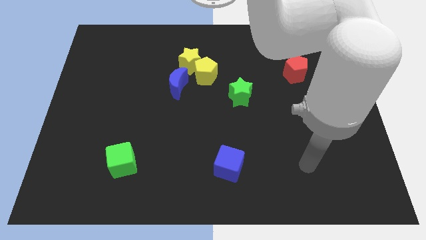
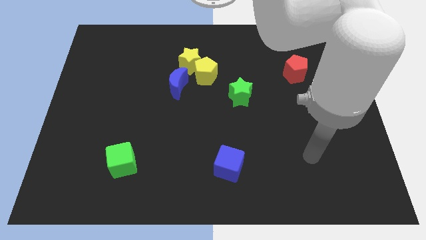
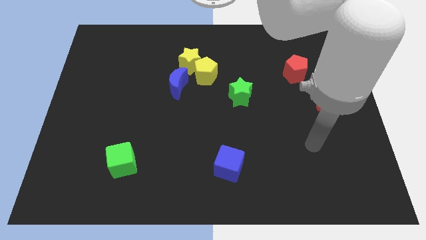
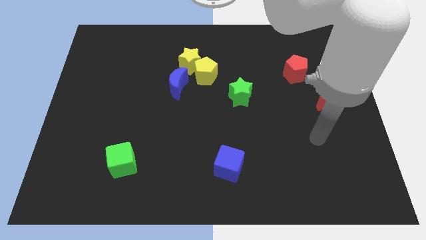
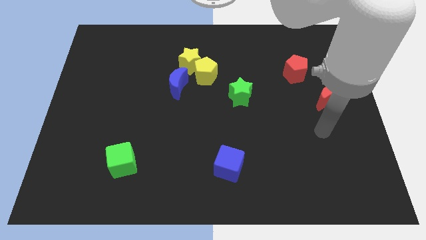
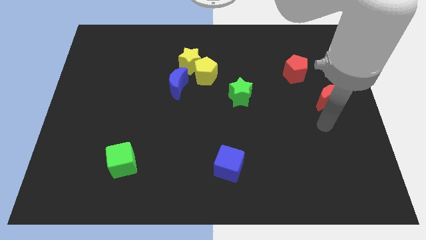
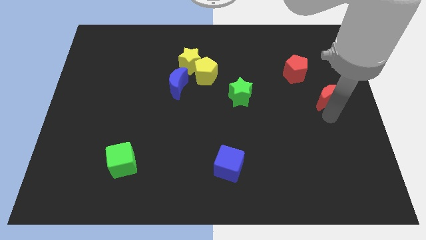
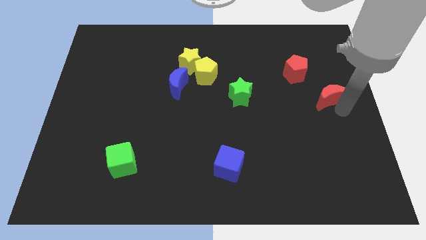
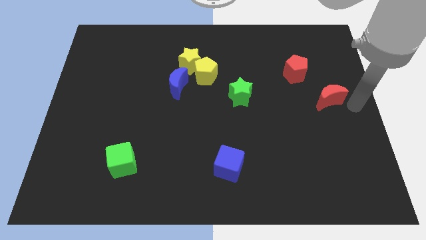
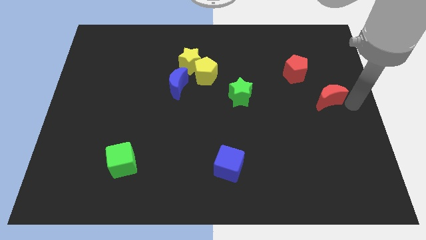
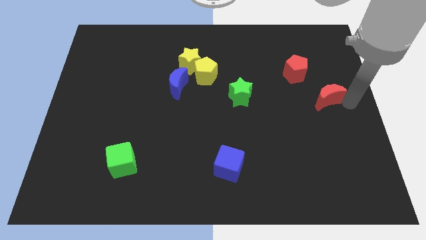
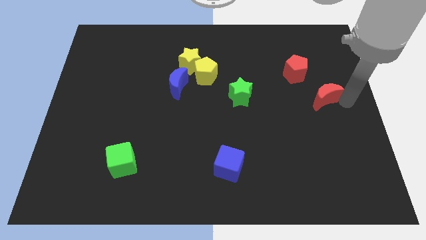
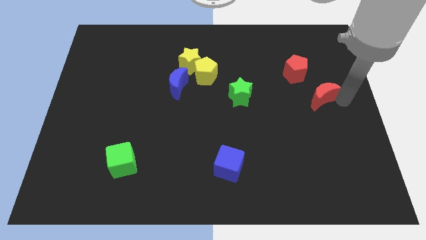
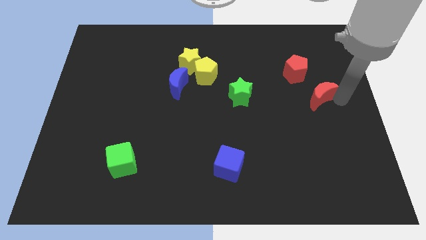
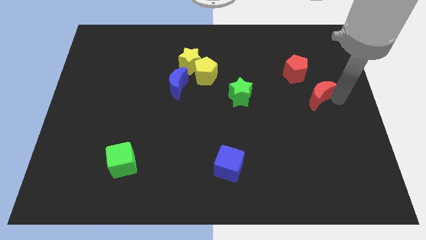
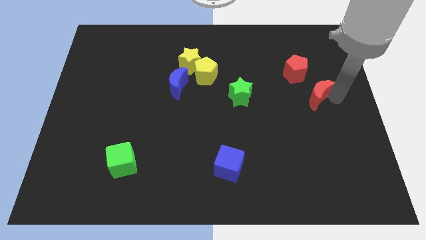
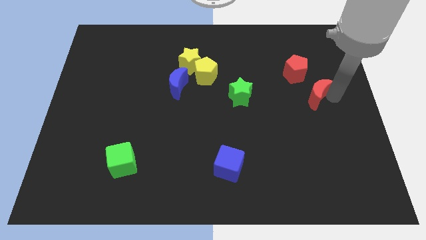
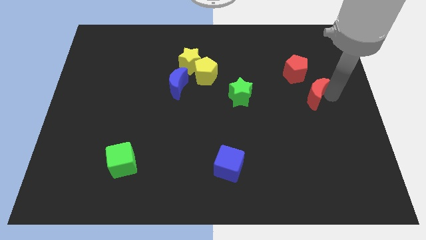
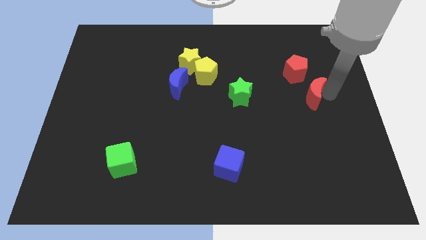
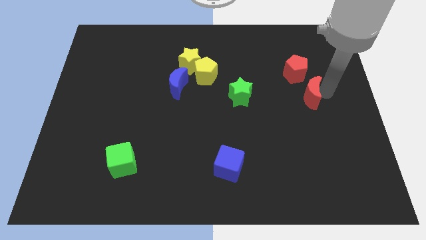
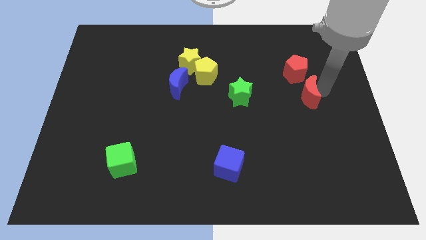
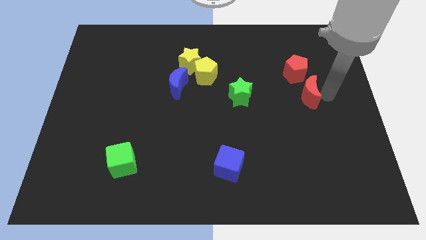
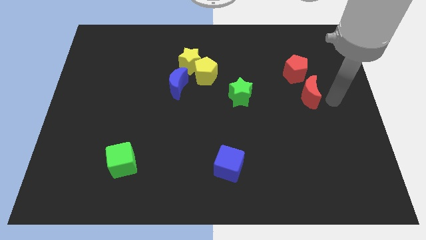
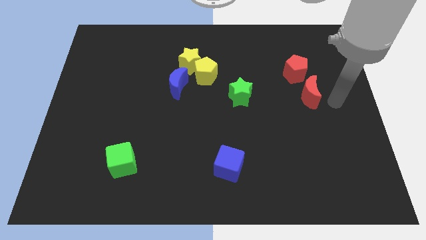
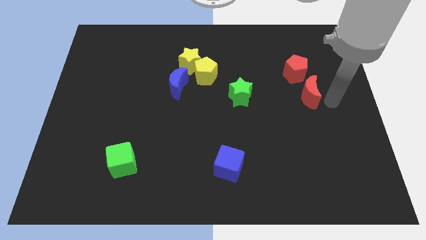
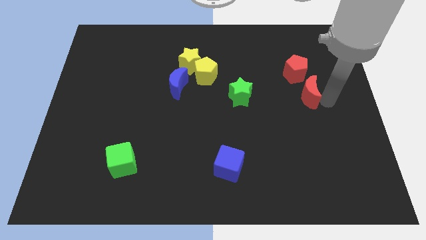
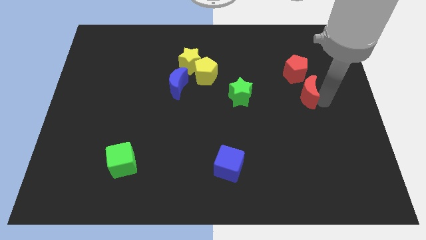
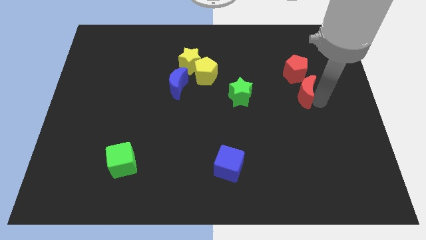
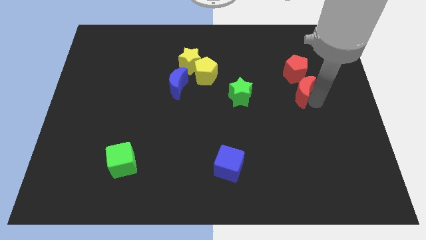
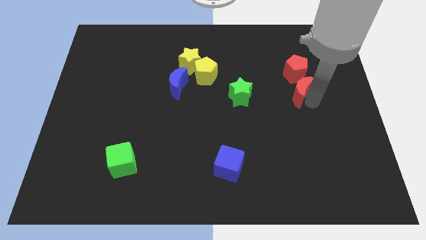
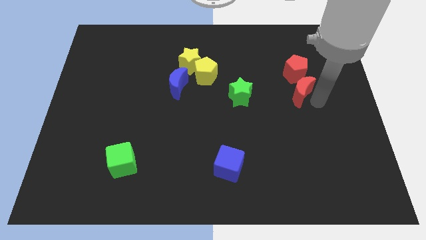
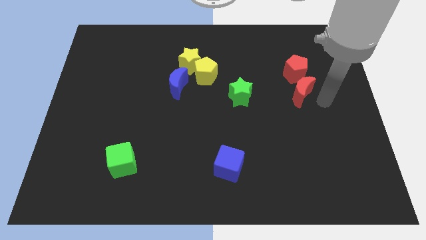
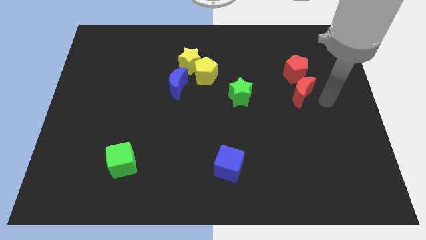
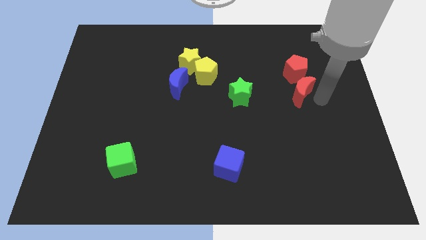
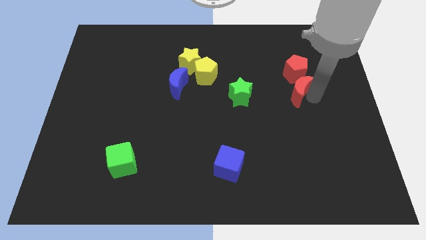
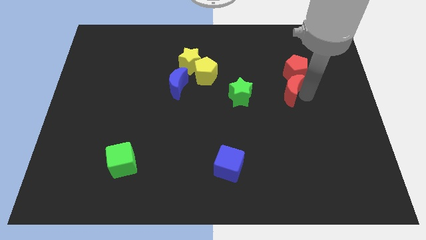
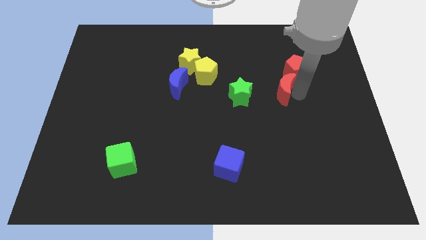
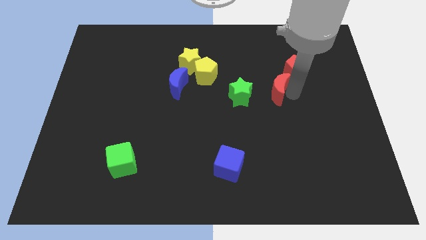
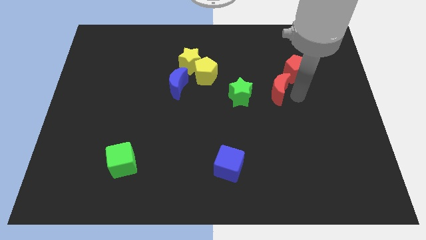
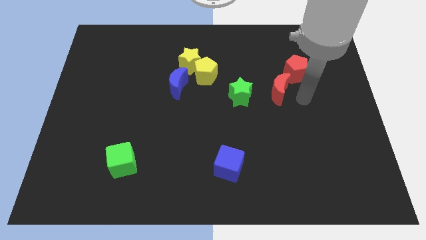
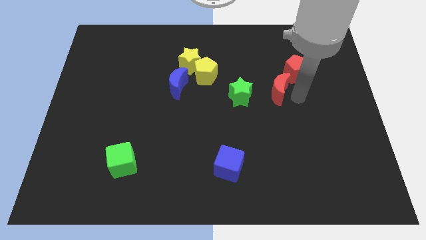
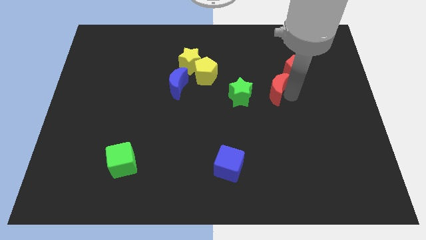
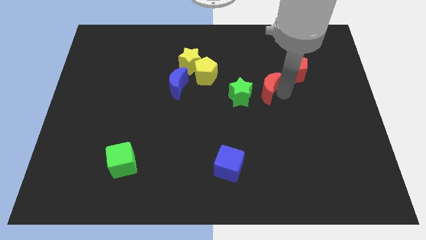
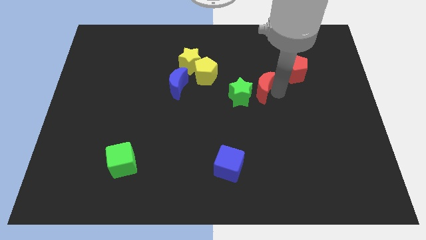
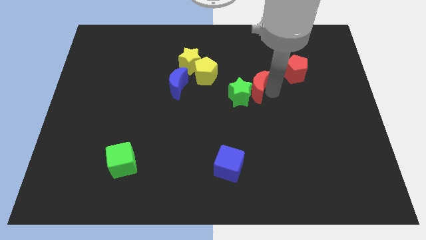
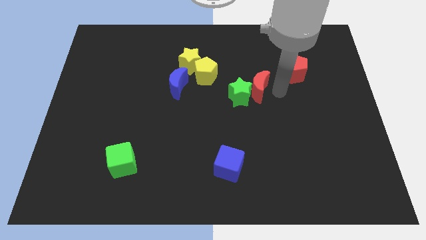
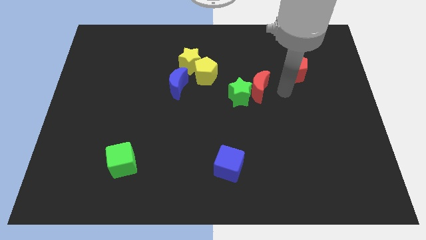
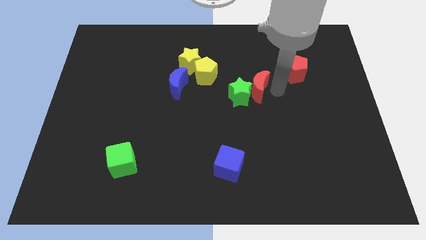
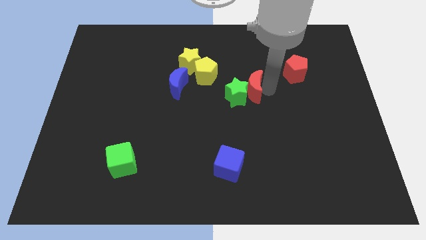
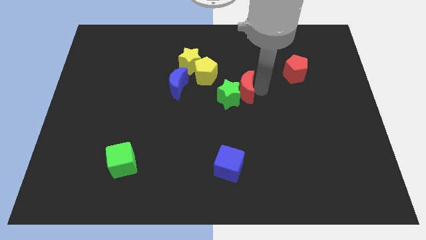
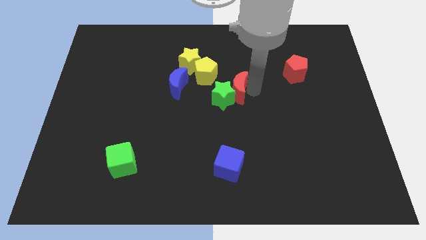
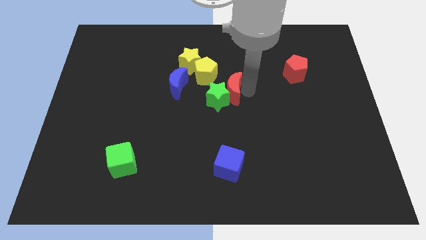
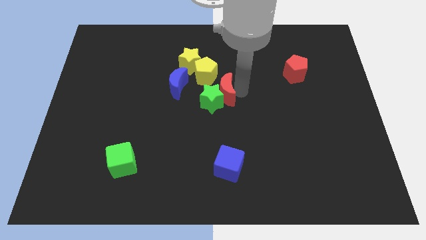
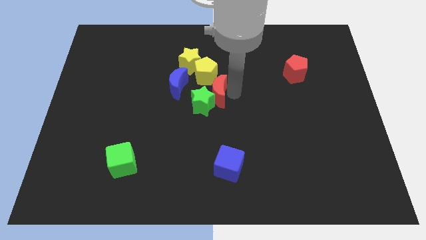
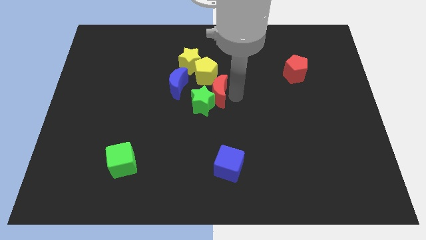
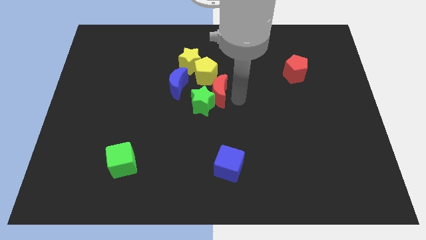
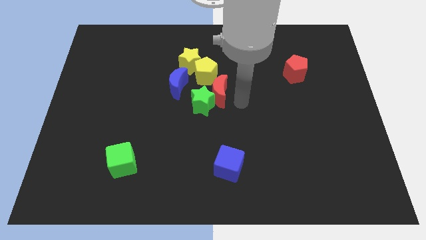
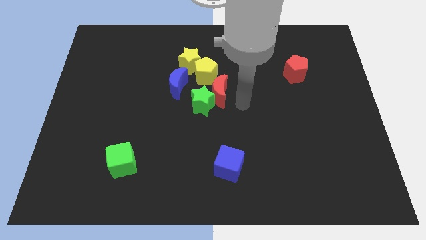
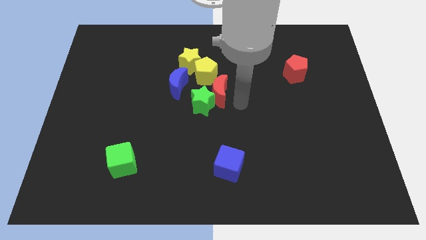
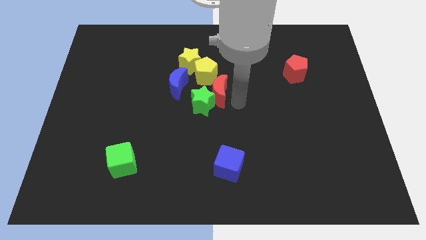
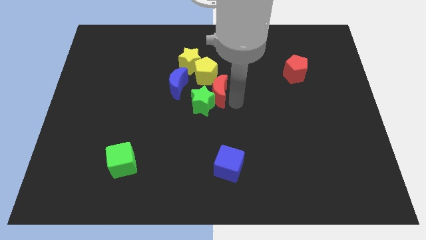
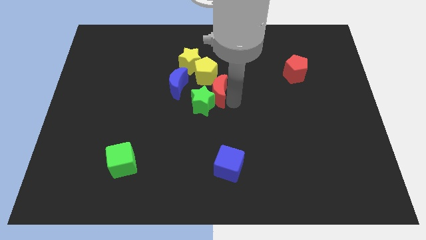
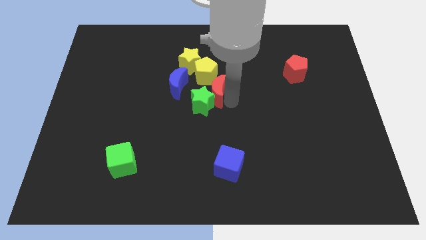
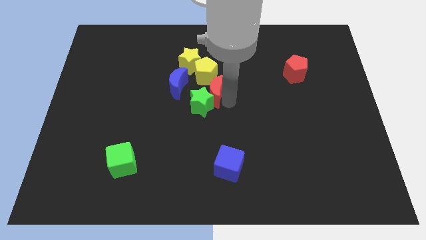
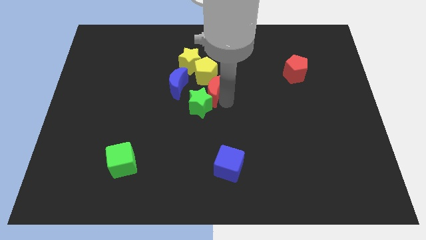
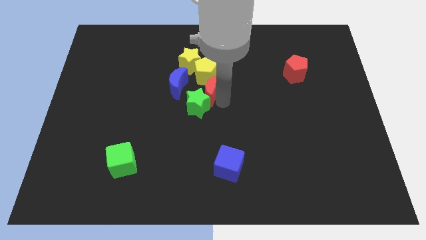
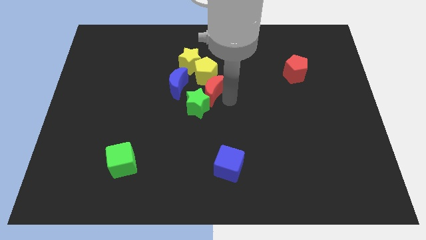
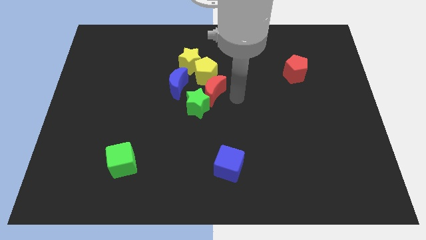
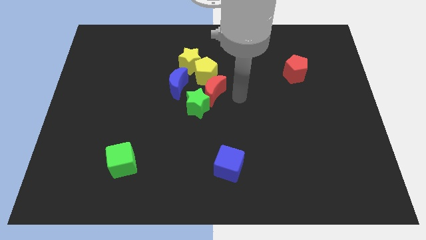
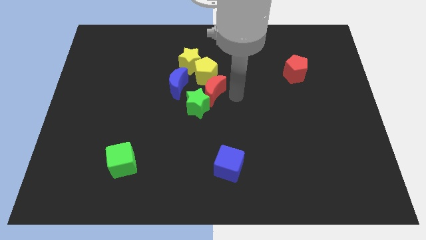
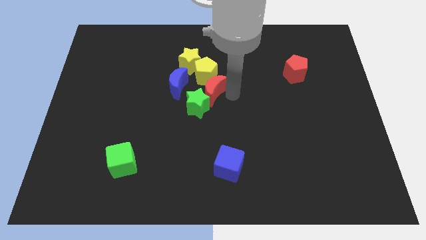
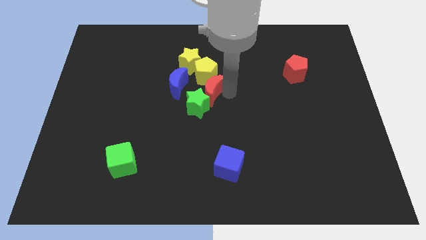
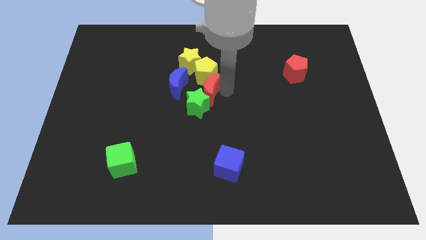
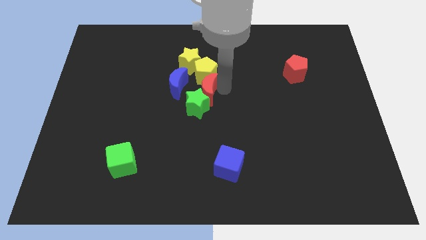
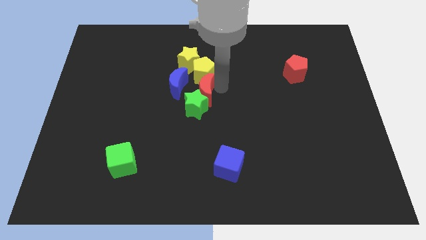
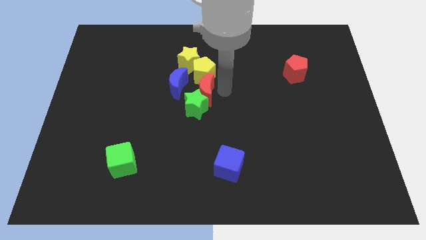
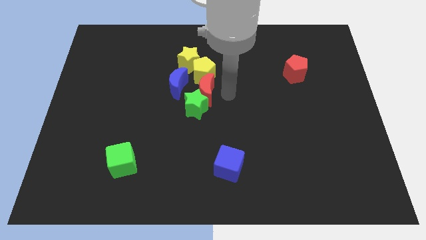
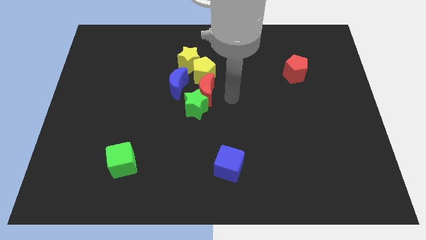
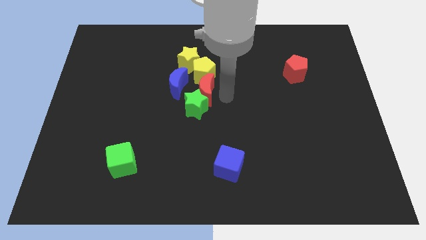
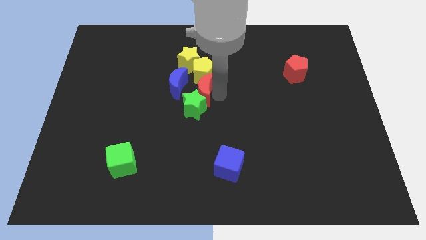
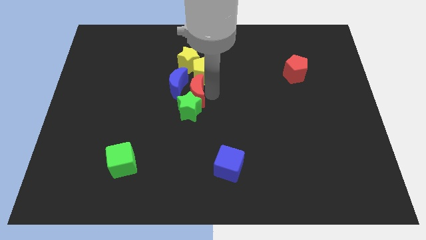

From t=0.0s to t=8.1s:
put the red moon to the blue moon

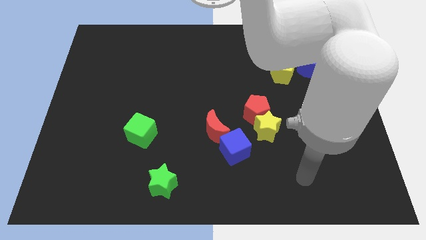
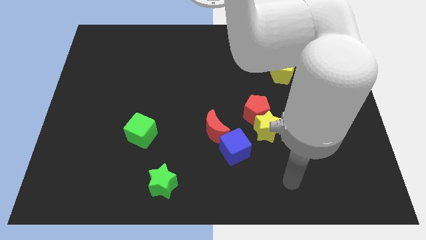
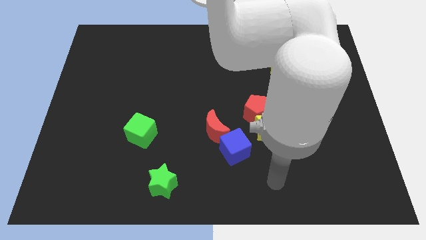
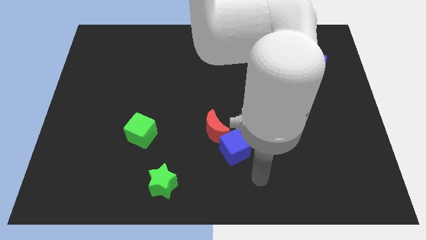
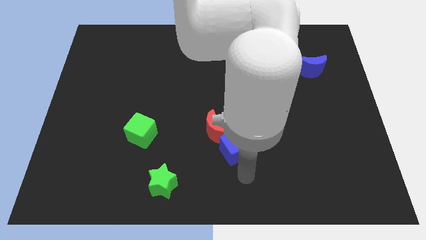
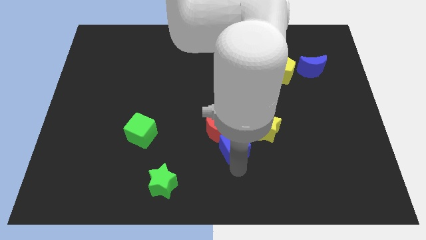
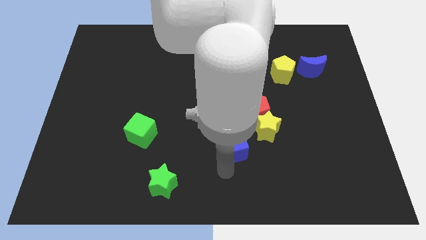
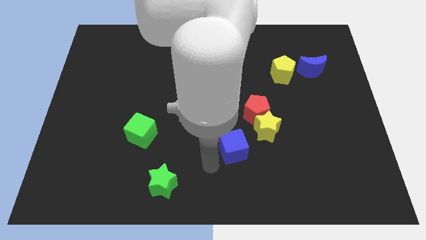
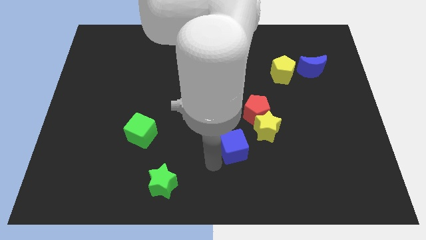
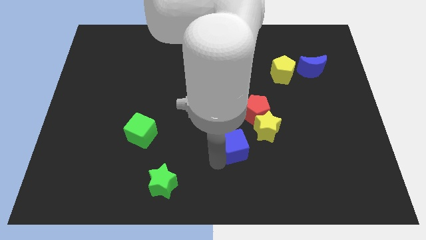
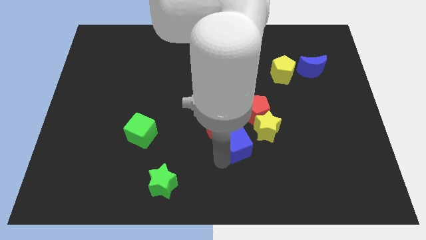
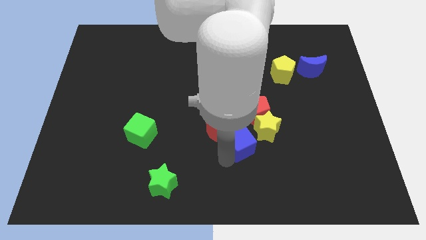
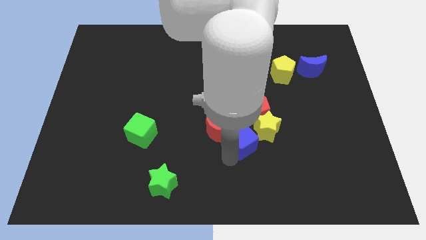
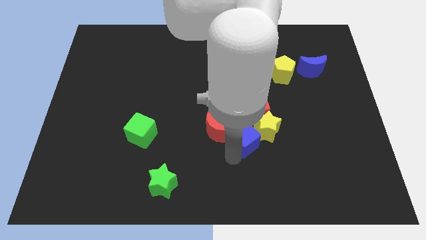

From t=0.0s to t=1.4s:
slide the blue cube next to the yellow star
